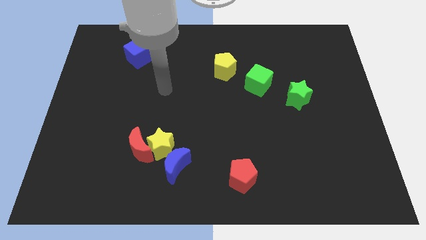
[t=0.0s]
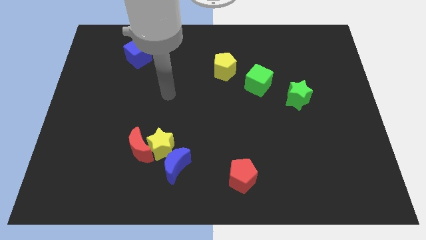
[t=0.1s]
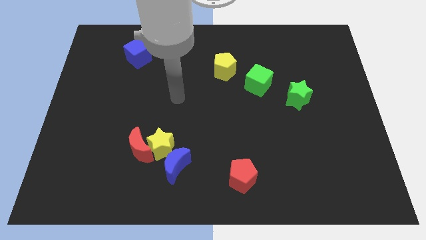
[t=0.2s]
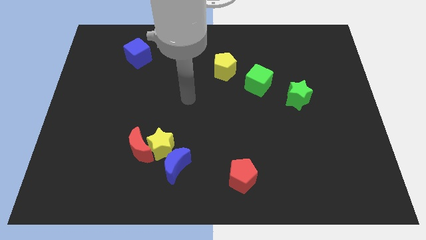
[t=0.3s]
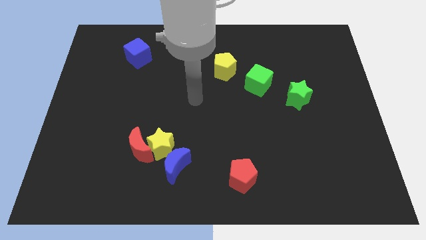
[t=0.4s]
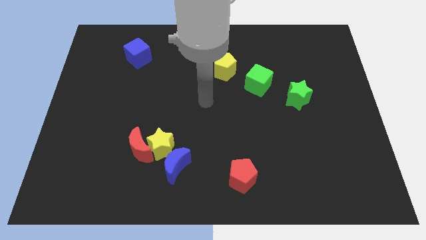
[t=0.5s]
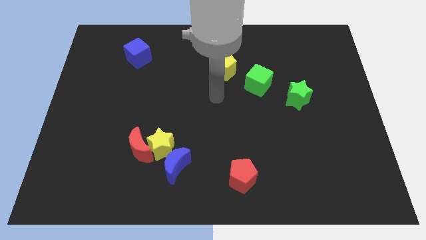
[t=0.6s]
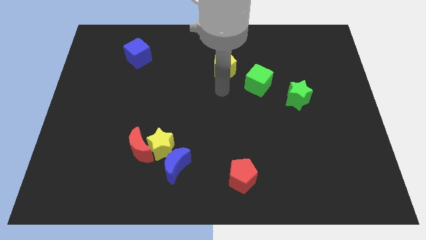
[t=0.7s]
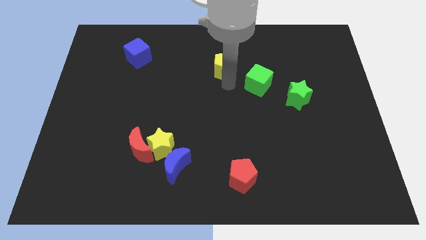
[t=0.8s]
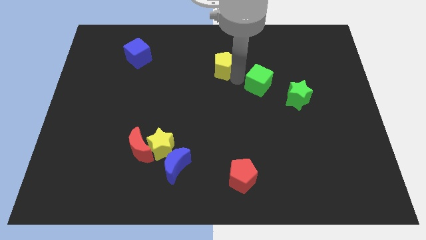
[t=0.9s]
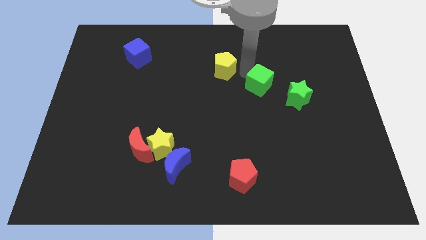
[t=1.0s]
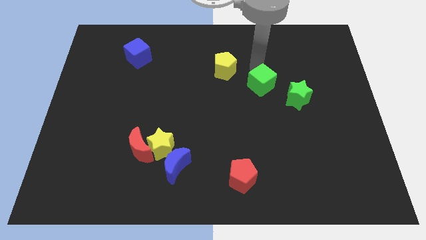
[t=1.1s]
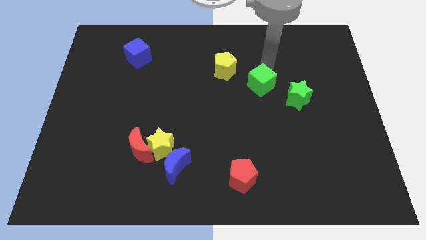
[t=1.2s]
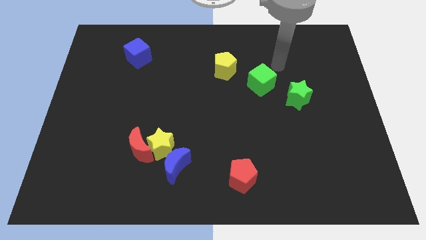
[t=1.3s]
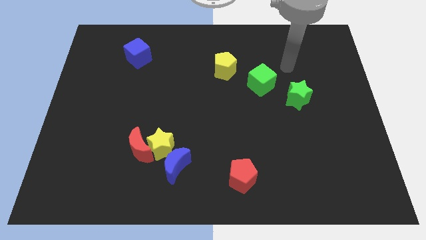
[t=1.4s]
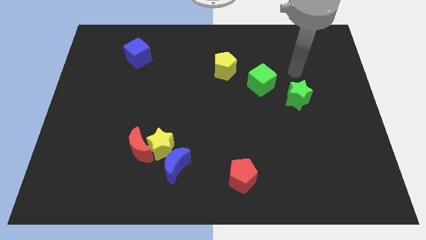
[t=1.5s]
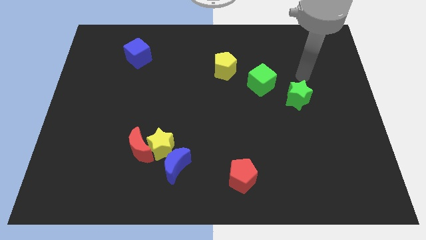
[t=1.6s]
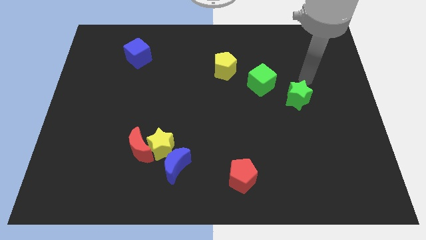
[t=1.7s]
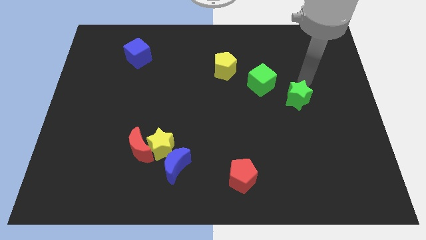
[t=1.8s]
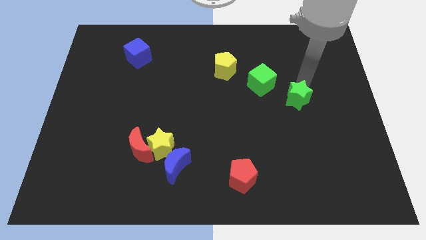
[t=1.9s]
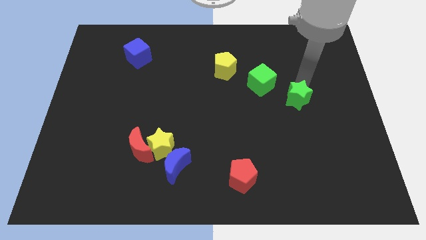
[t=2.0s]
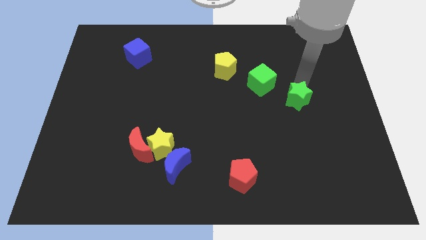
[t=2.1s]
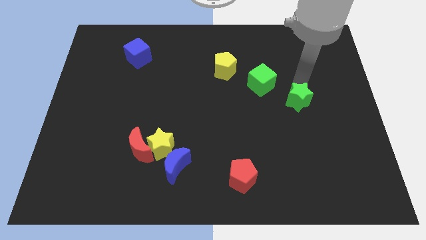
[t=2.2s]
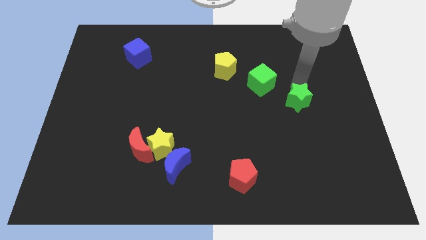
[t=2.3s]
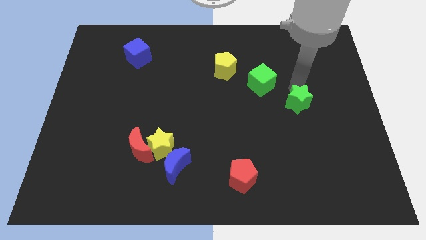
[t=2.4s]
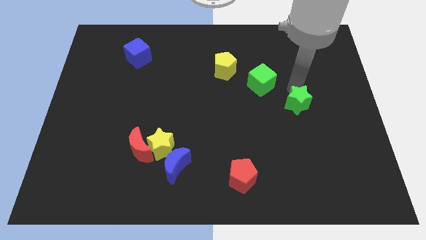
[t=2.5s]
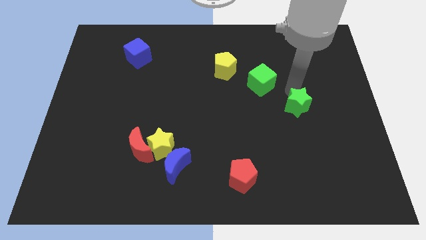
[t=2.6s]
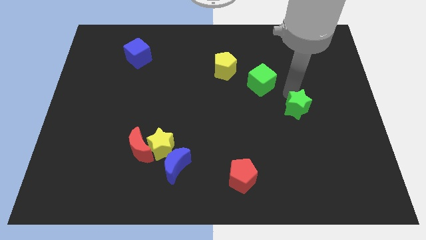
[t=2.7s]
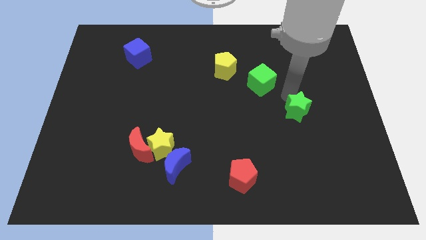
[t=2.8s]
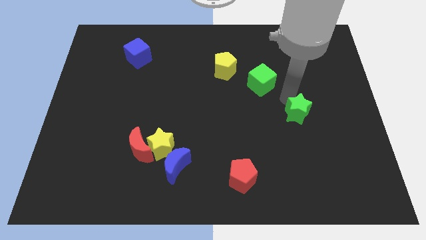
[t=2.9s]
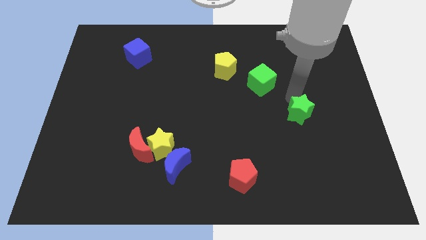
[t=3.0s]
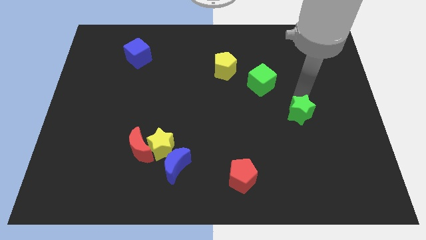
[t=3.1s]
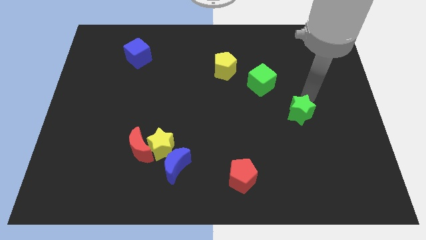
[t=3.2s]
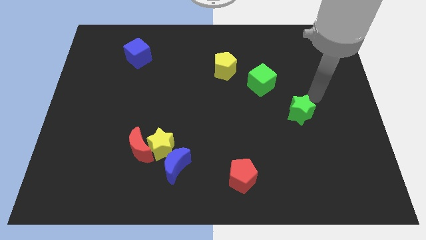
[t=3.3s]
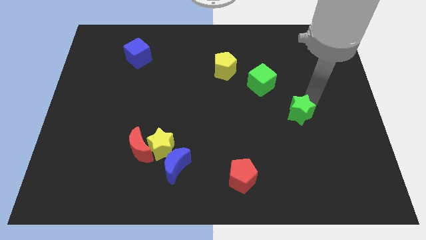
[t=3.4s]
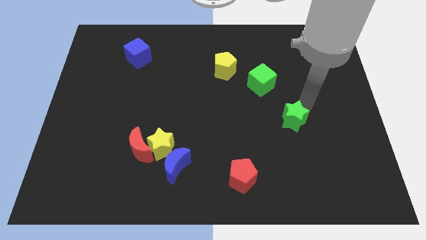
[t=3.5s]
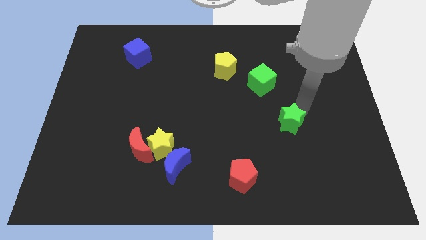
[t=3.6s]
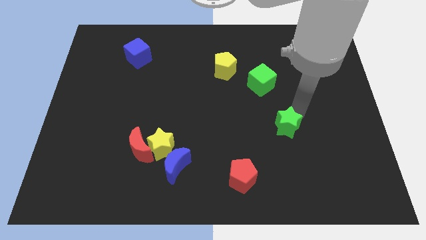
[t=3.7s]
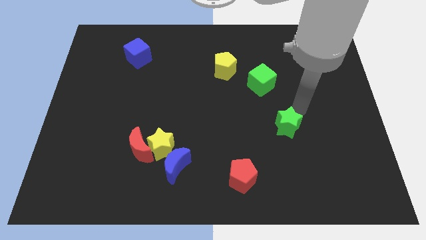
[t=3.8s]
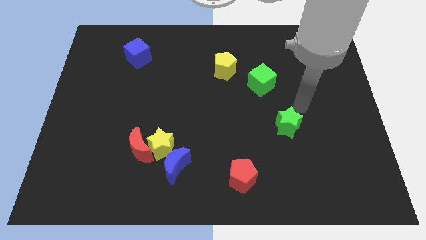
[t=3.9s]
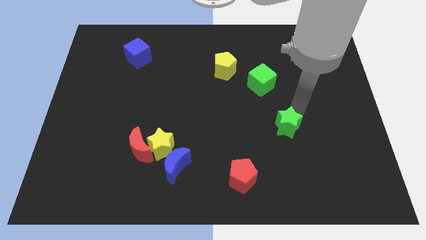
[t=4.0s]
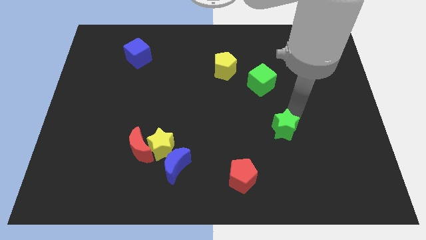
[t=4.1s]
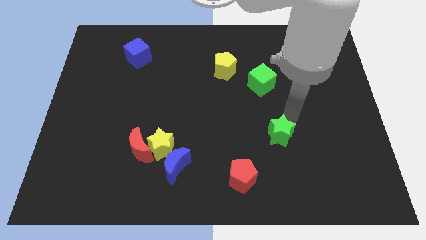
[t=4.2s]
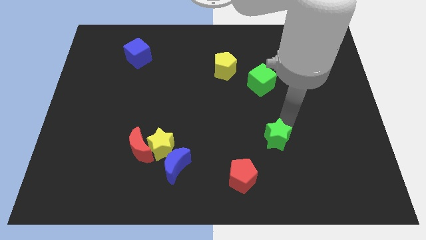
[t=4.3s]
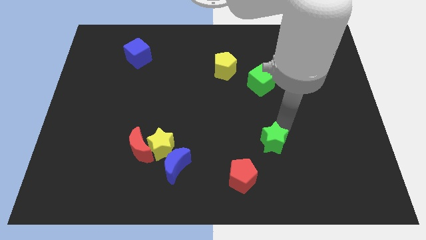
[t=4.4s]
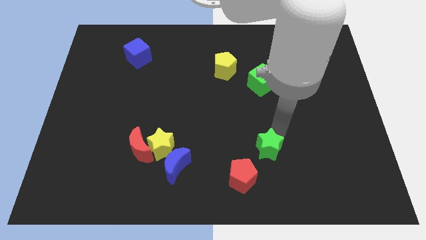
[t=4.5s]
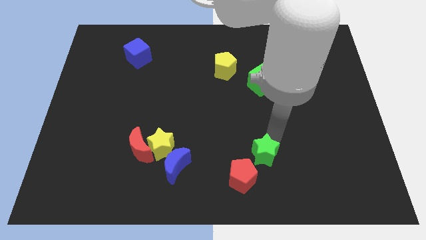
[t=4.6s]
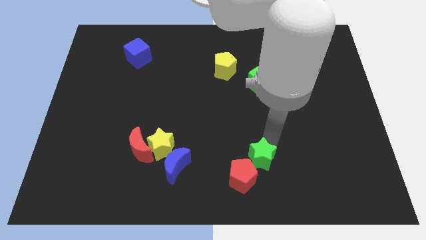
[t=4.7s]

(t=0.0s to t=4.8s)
put the green star close to the red pentagon

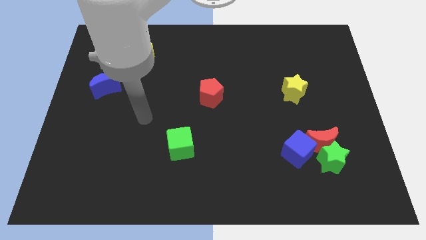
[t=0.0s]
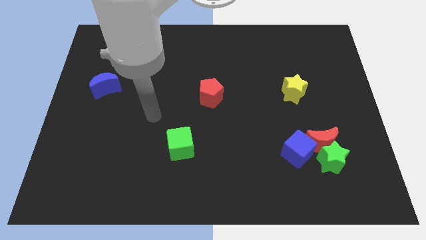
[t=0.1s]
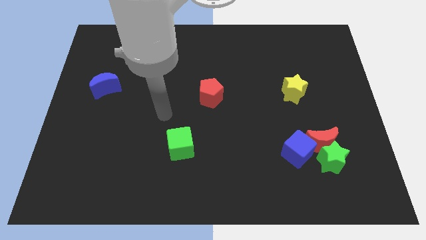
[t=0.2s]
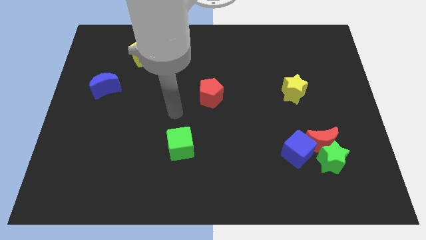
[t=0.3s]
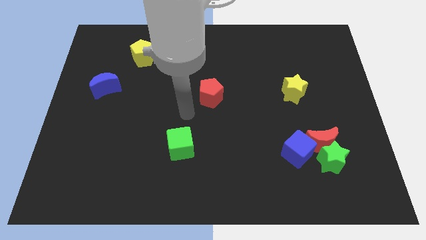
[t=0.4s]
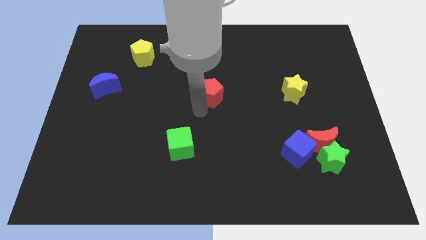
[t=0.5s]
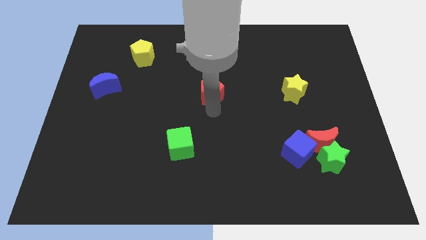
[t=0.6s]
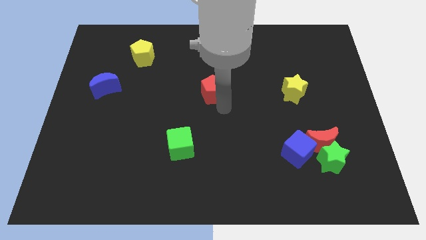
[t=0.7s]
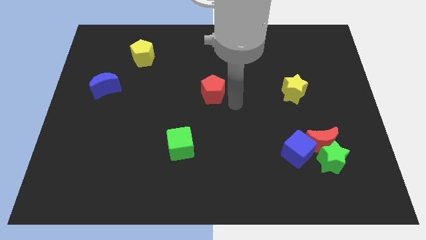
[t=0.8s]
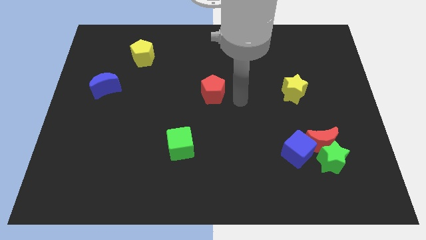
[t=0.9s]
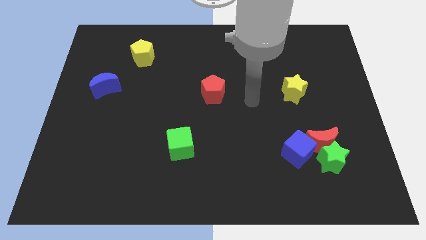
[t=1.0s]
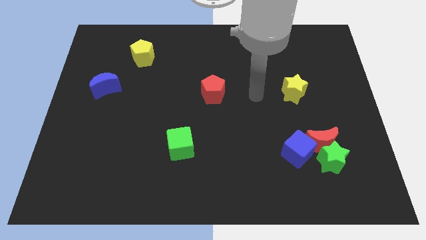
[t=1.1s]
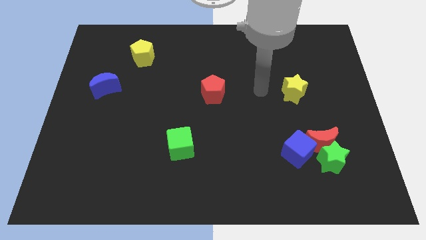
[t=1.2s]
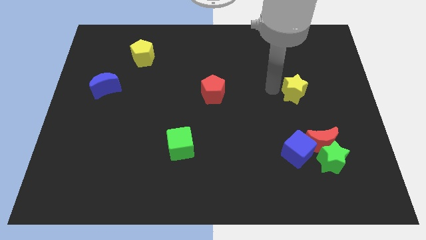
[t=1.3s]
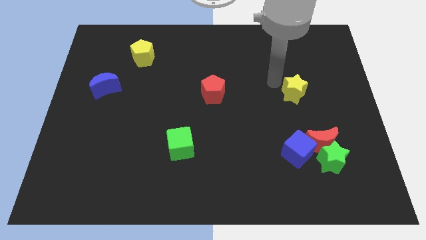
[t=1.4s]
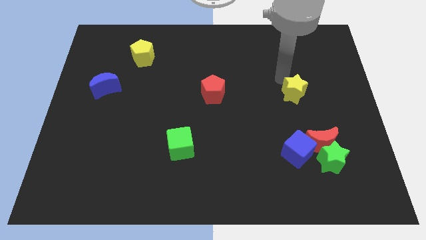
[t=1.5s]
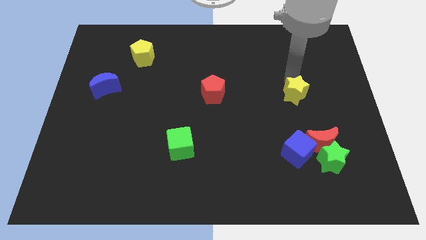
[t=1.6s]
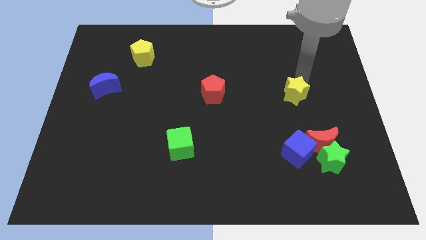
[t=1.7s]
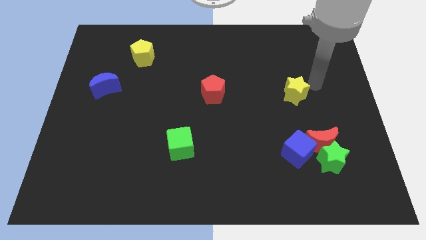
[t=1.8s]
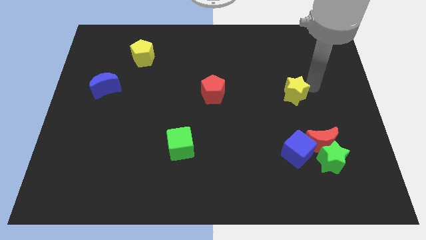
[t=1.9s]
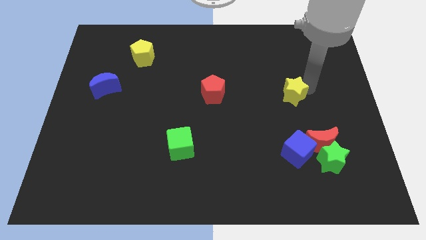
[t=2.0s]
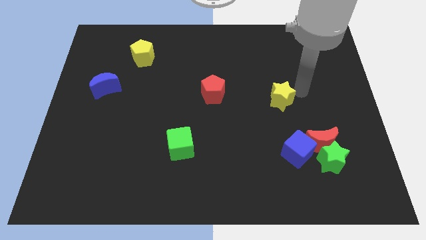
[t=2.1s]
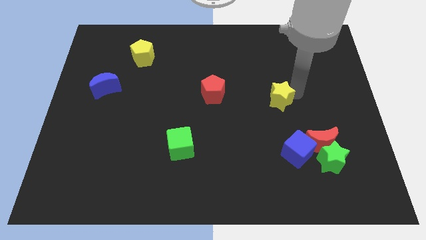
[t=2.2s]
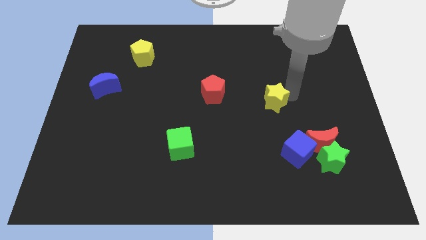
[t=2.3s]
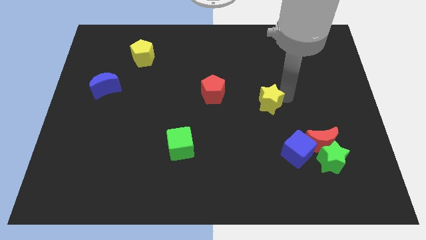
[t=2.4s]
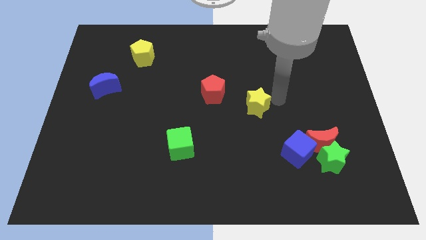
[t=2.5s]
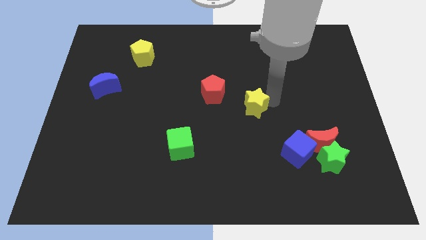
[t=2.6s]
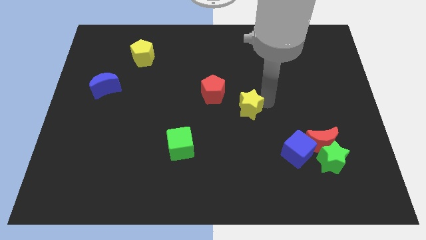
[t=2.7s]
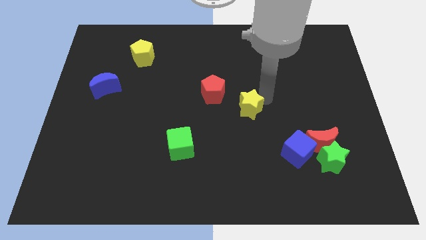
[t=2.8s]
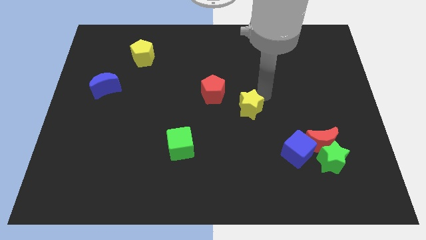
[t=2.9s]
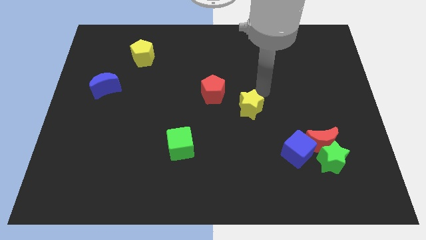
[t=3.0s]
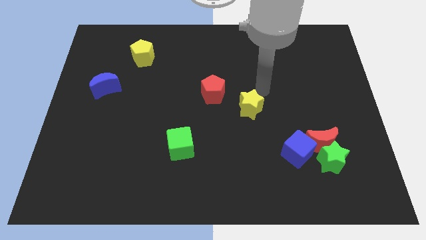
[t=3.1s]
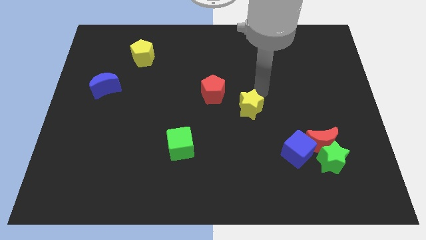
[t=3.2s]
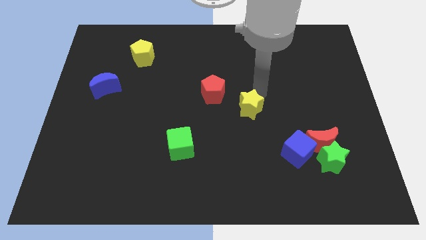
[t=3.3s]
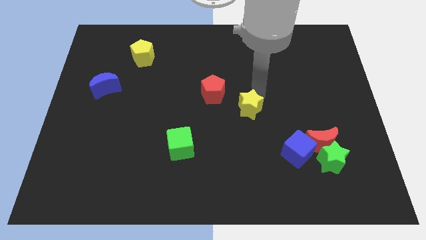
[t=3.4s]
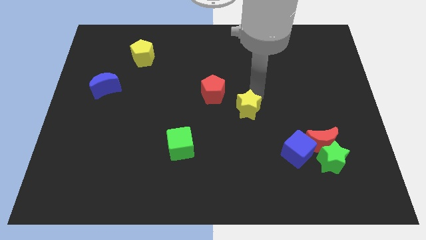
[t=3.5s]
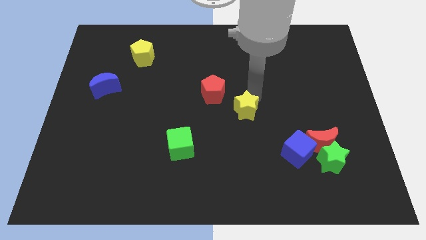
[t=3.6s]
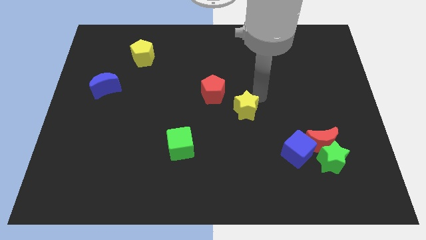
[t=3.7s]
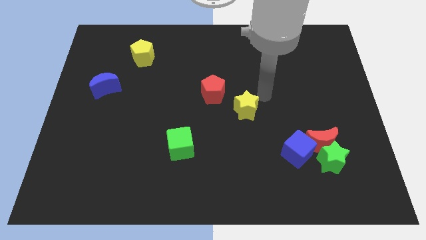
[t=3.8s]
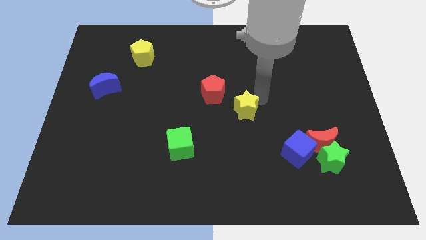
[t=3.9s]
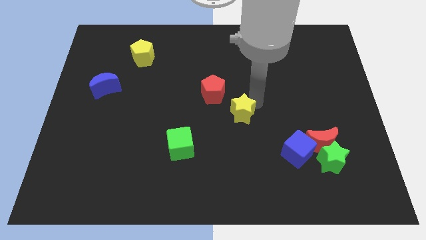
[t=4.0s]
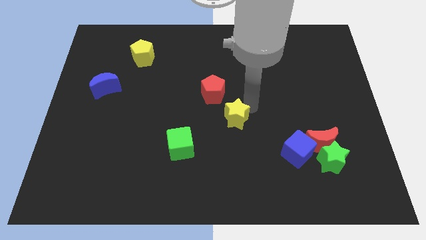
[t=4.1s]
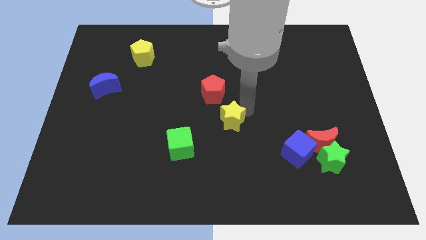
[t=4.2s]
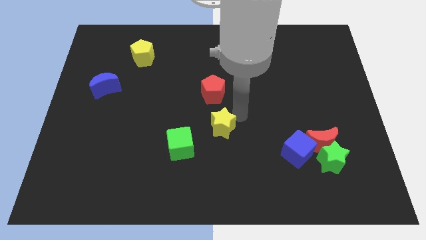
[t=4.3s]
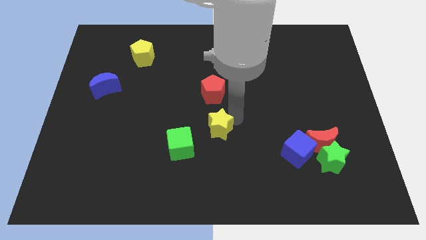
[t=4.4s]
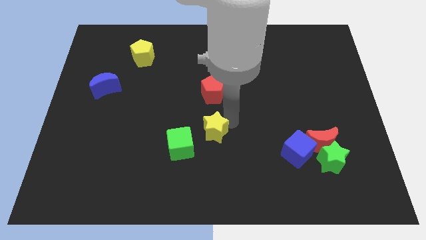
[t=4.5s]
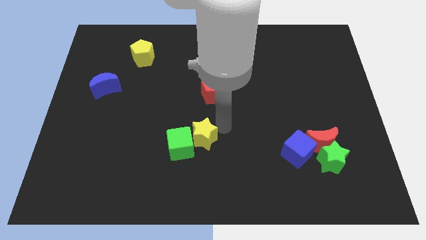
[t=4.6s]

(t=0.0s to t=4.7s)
slide the yellow star towards the green cube
